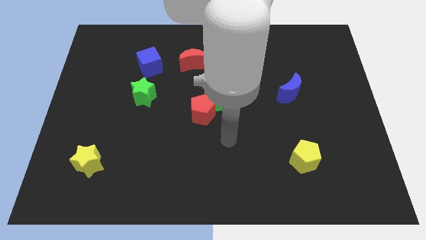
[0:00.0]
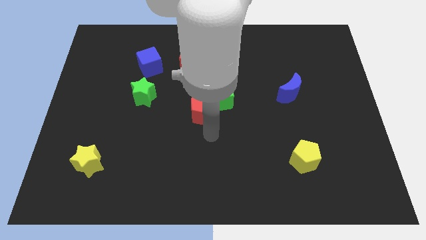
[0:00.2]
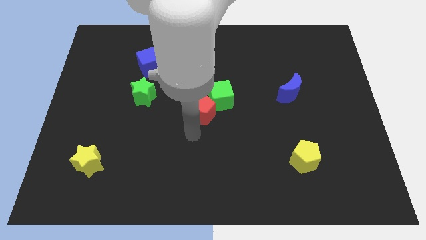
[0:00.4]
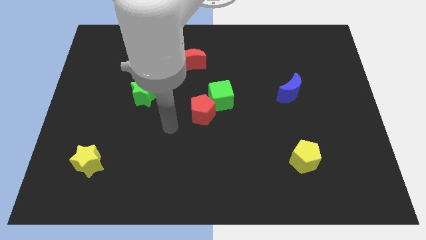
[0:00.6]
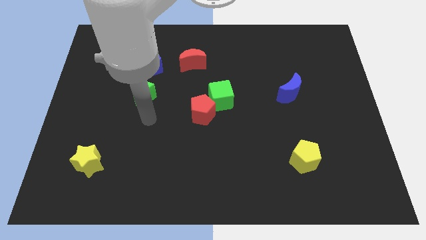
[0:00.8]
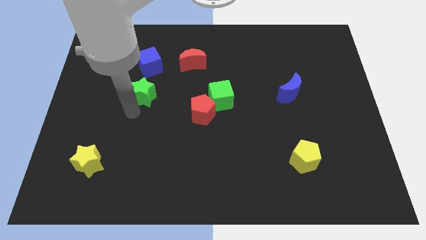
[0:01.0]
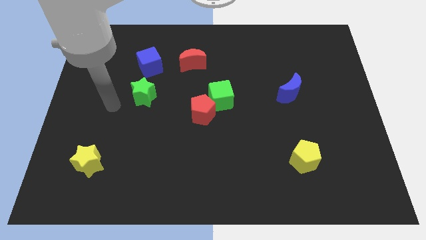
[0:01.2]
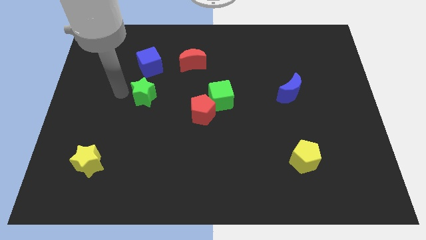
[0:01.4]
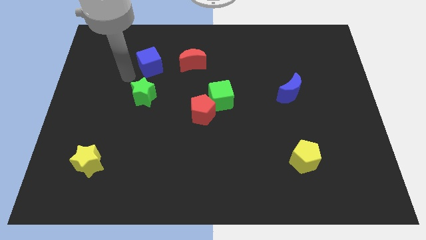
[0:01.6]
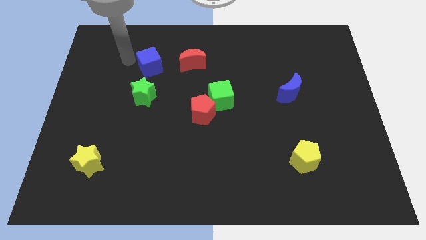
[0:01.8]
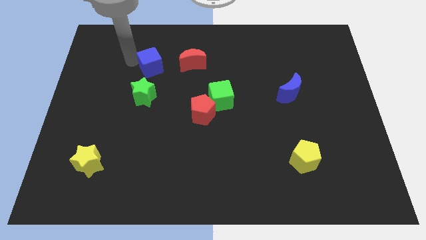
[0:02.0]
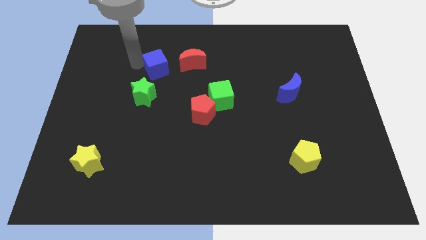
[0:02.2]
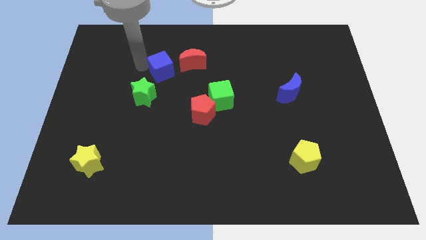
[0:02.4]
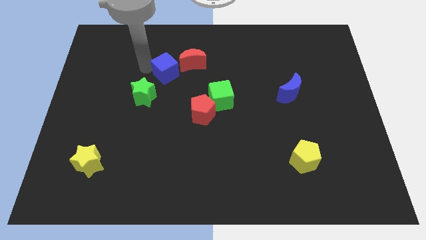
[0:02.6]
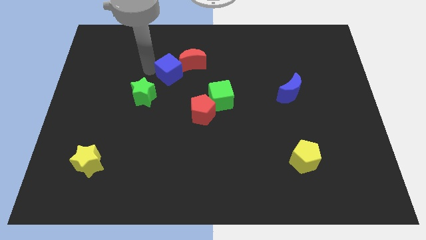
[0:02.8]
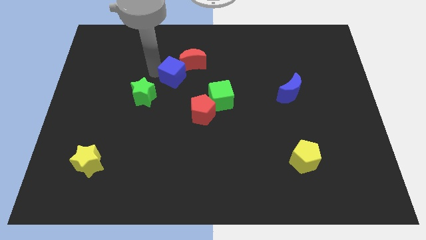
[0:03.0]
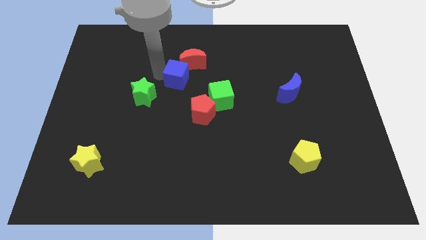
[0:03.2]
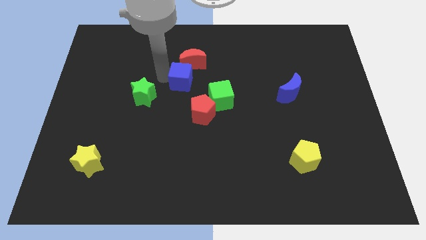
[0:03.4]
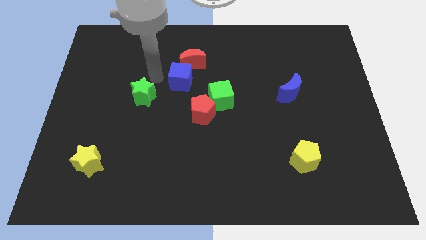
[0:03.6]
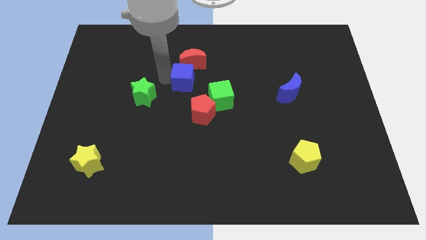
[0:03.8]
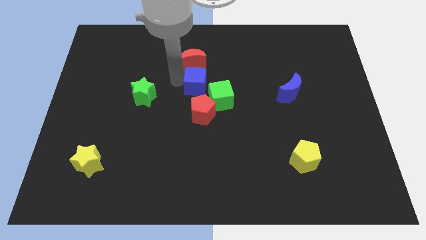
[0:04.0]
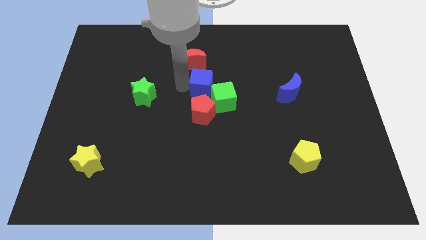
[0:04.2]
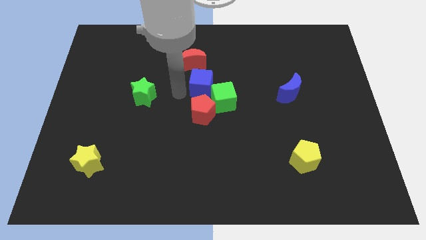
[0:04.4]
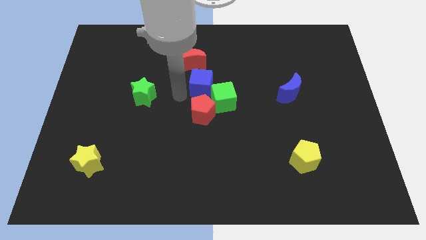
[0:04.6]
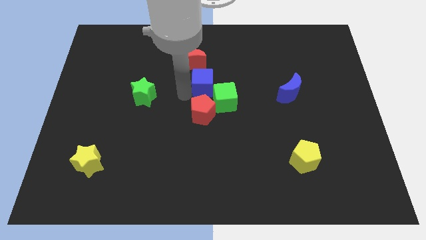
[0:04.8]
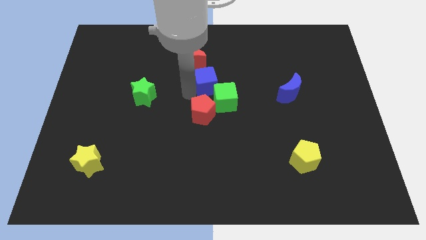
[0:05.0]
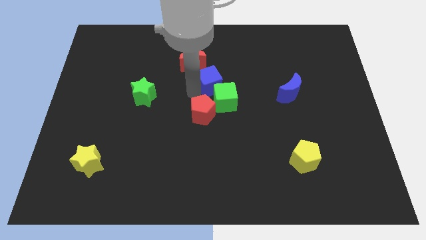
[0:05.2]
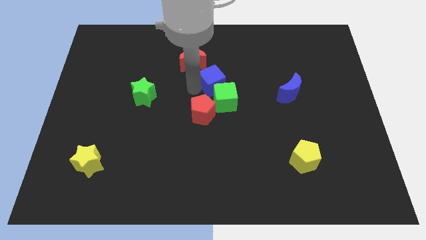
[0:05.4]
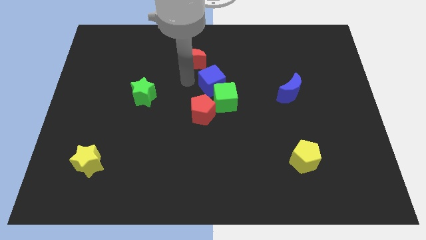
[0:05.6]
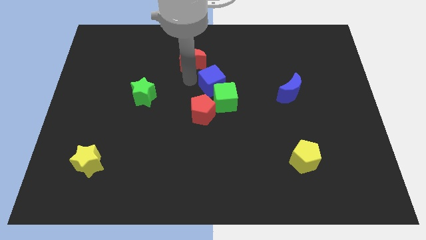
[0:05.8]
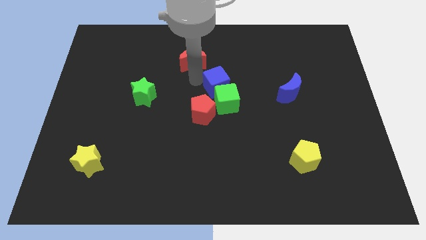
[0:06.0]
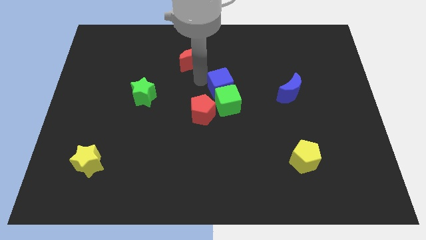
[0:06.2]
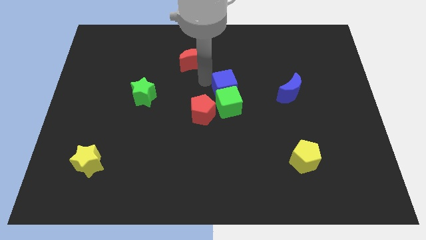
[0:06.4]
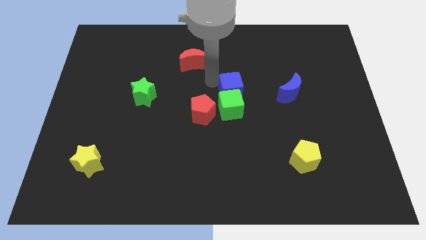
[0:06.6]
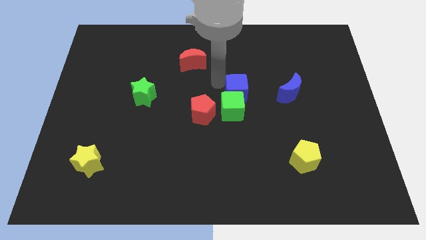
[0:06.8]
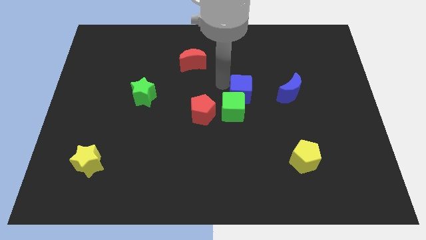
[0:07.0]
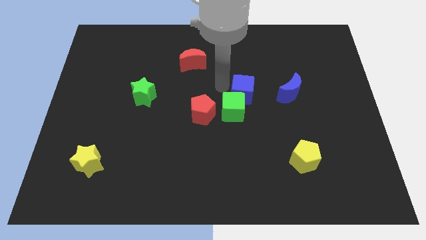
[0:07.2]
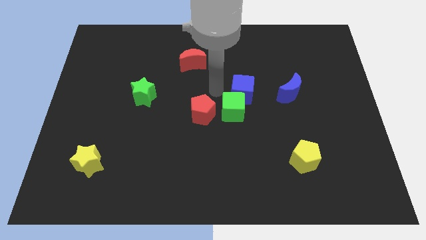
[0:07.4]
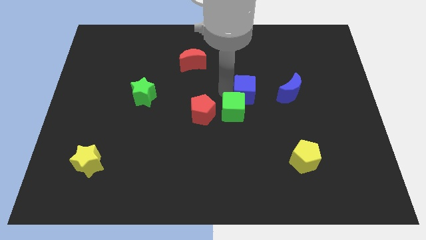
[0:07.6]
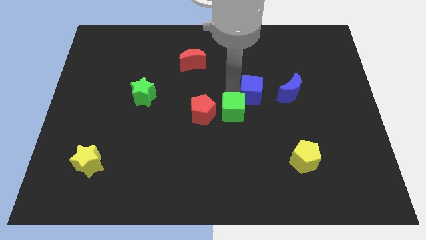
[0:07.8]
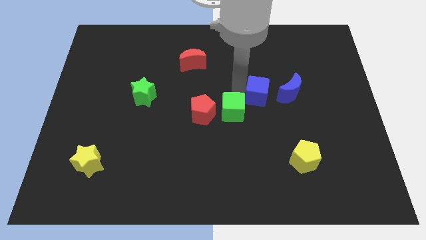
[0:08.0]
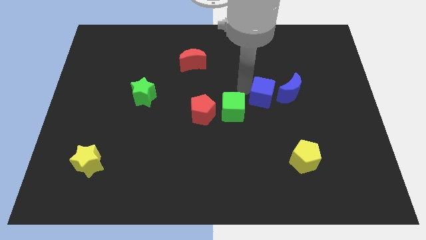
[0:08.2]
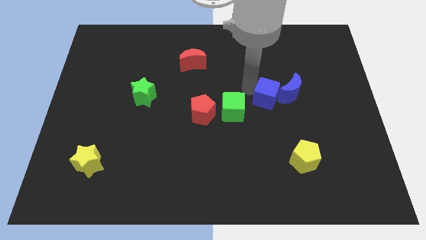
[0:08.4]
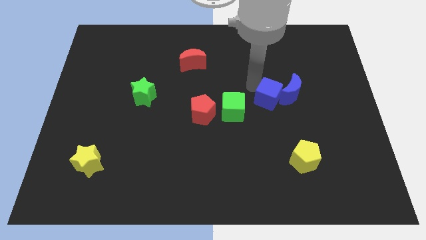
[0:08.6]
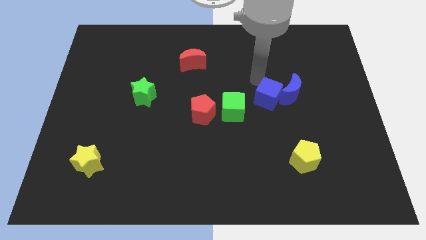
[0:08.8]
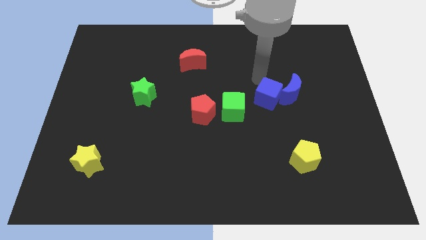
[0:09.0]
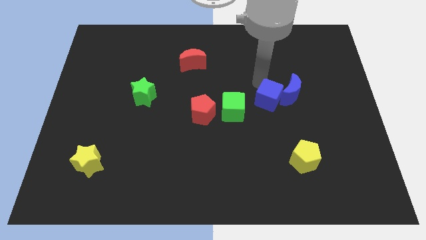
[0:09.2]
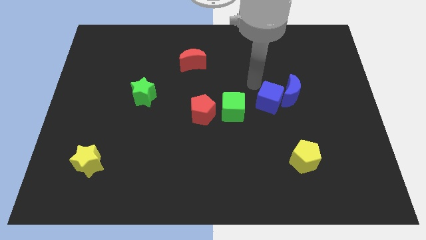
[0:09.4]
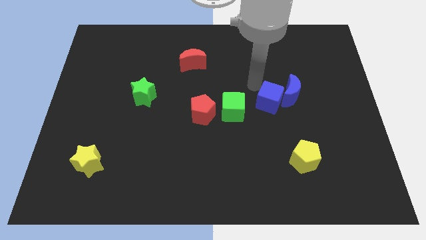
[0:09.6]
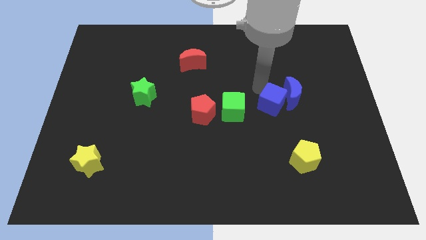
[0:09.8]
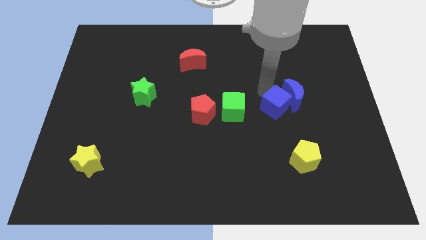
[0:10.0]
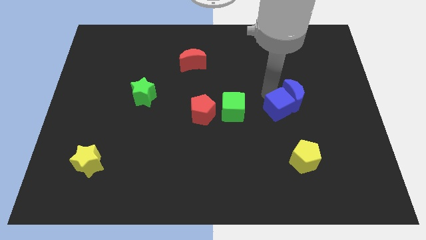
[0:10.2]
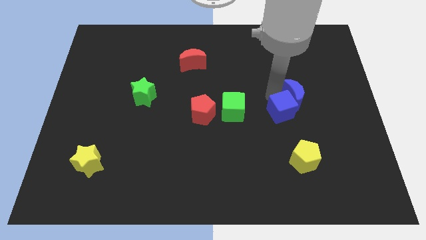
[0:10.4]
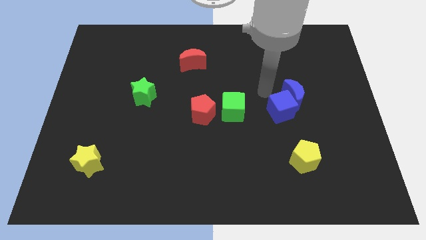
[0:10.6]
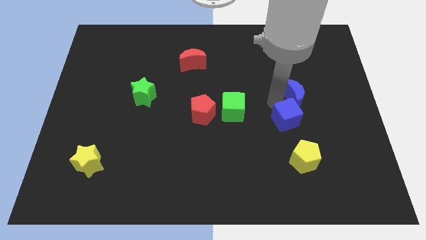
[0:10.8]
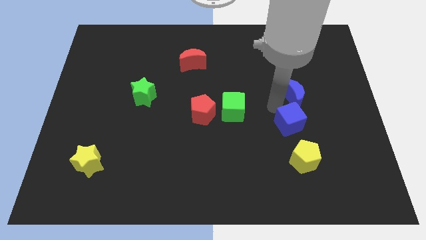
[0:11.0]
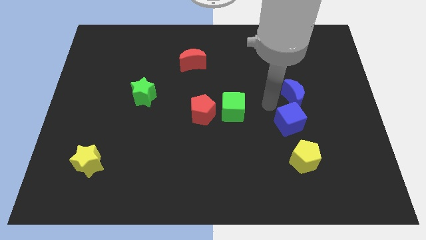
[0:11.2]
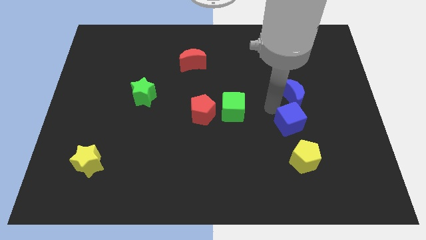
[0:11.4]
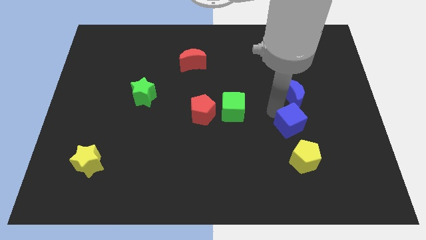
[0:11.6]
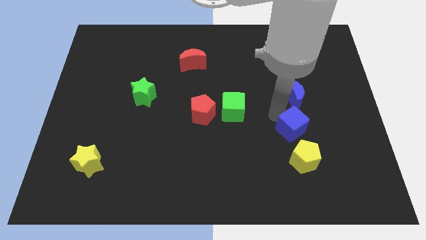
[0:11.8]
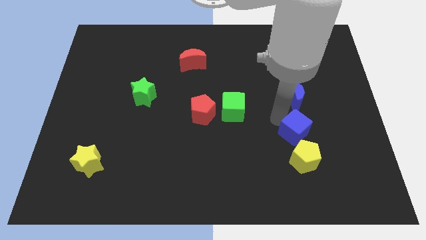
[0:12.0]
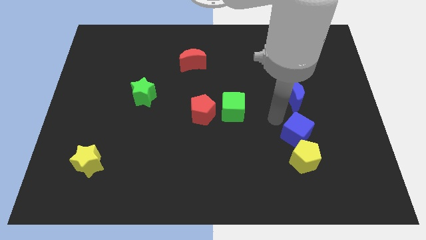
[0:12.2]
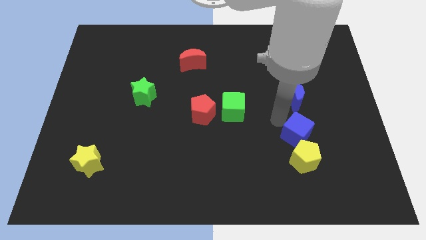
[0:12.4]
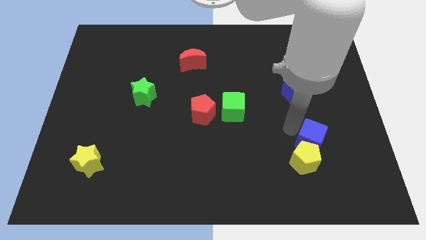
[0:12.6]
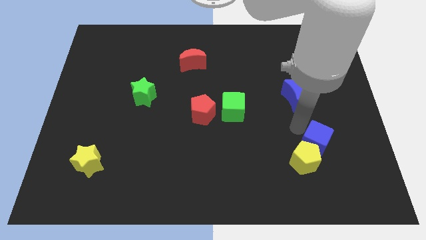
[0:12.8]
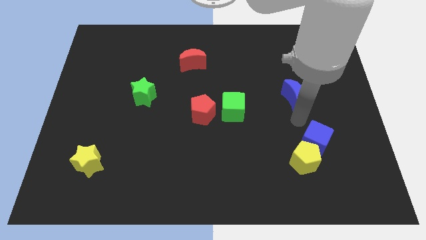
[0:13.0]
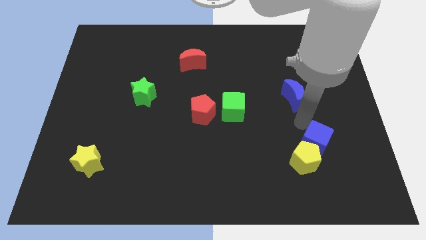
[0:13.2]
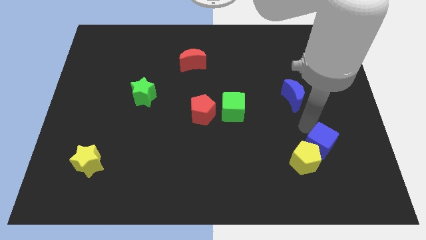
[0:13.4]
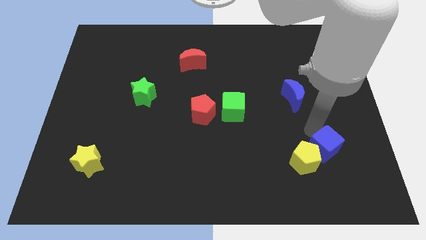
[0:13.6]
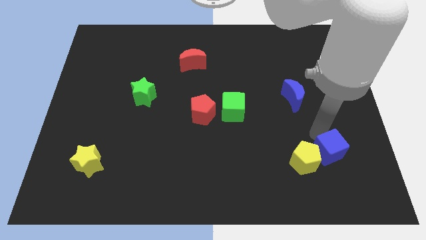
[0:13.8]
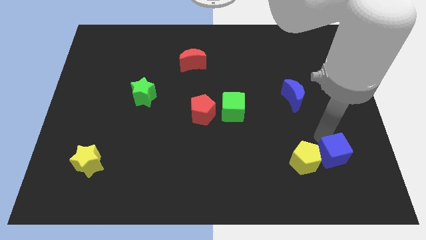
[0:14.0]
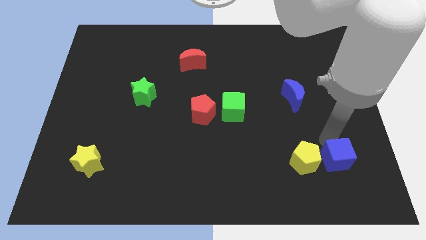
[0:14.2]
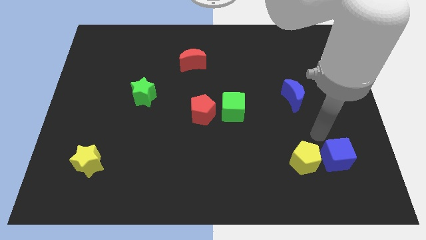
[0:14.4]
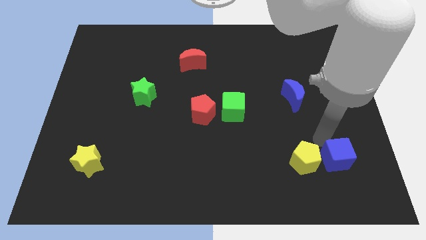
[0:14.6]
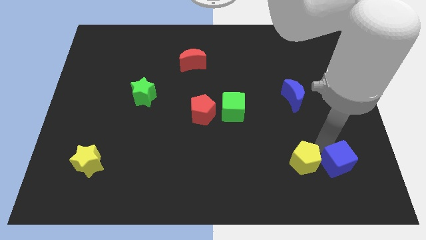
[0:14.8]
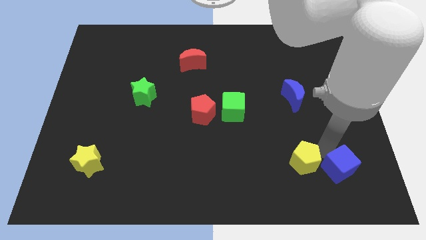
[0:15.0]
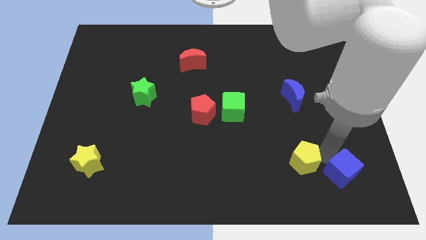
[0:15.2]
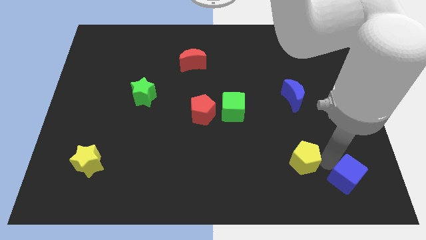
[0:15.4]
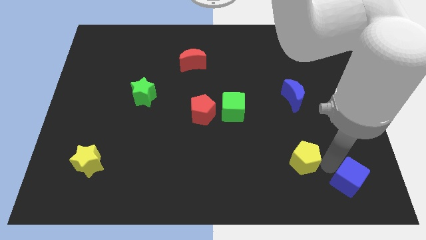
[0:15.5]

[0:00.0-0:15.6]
slide the blue cube to the lower right corner
